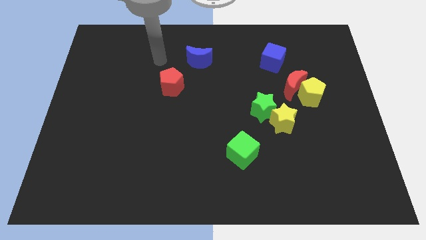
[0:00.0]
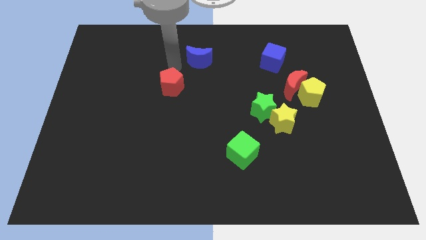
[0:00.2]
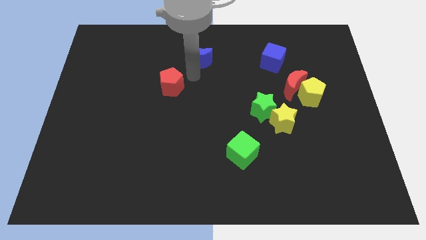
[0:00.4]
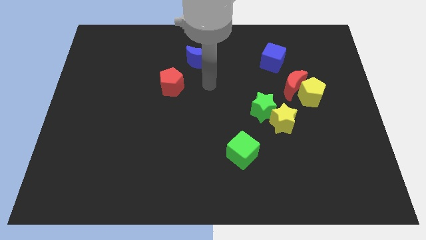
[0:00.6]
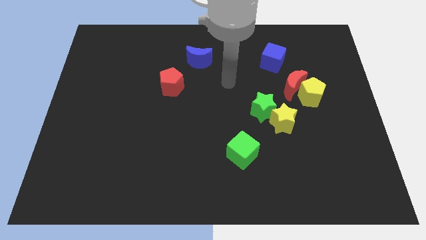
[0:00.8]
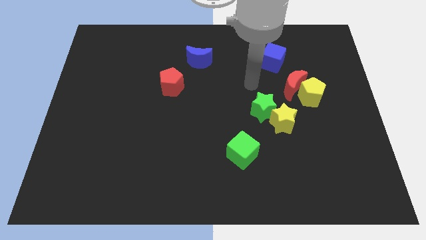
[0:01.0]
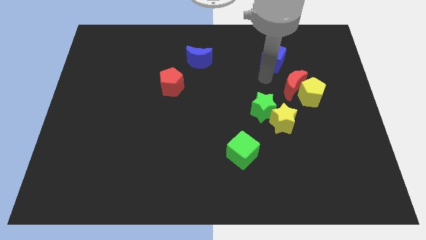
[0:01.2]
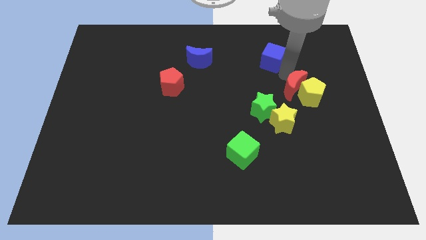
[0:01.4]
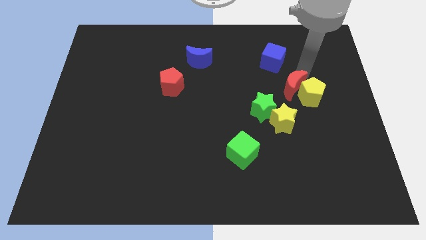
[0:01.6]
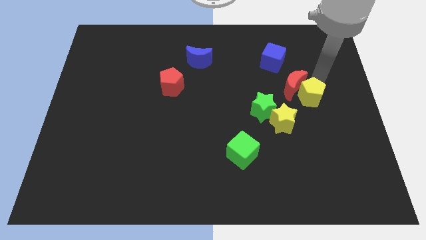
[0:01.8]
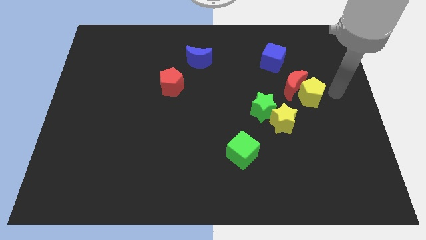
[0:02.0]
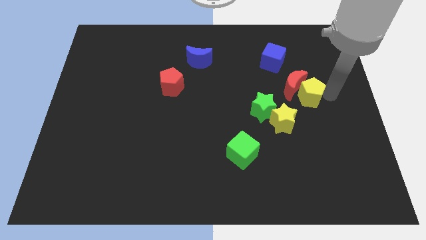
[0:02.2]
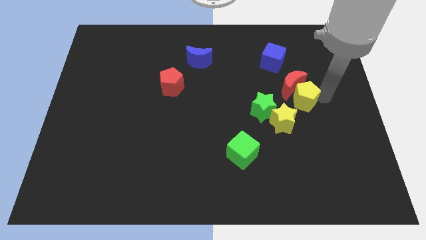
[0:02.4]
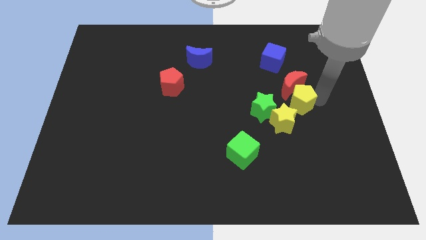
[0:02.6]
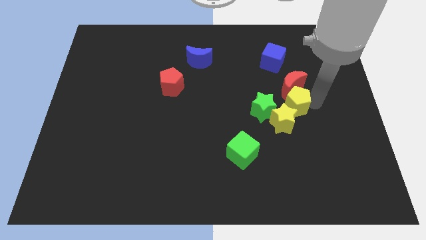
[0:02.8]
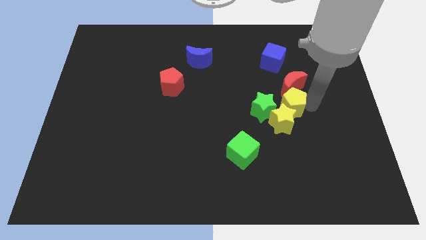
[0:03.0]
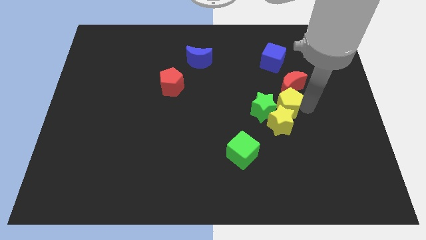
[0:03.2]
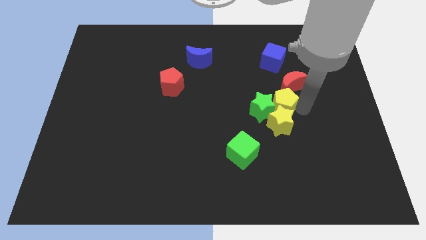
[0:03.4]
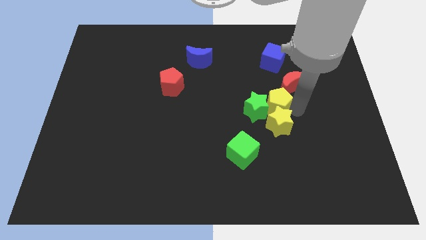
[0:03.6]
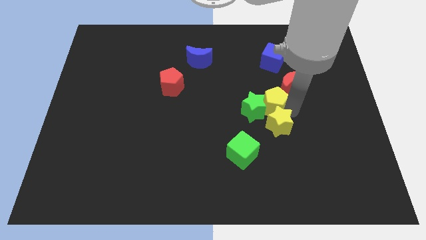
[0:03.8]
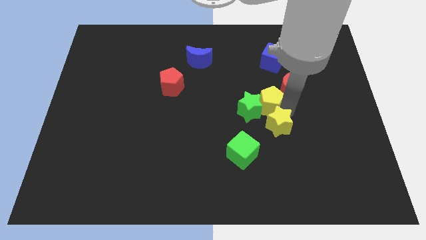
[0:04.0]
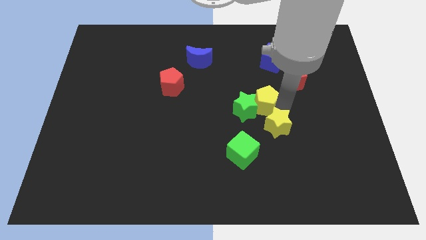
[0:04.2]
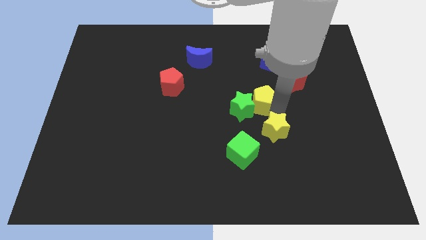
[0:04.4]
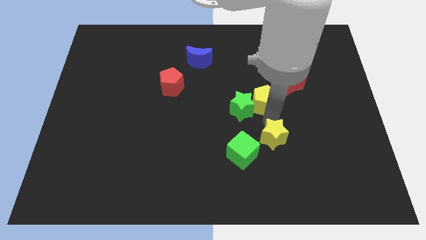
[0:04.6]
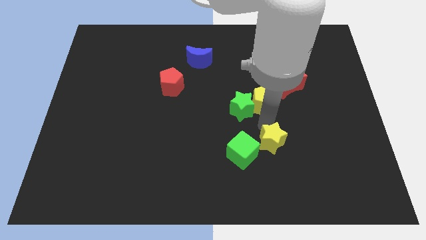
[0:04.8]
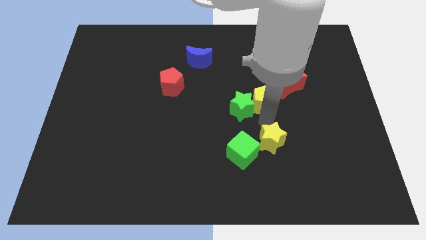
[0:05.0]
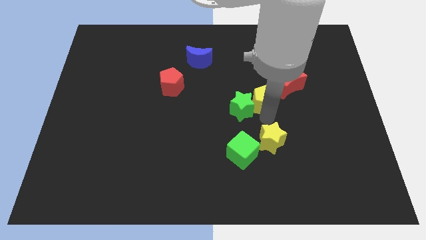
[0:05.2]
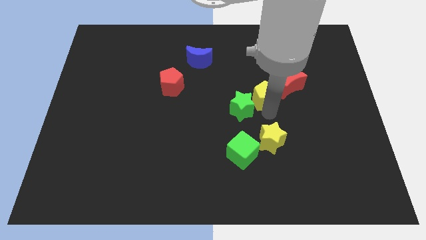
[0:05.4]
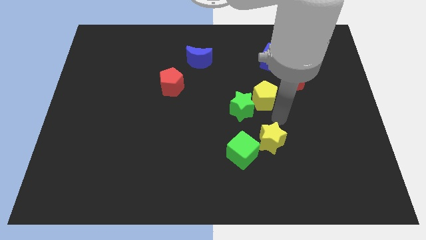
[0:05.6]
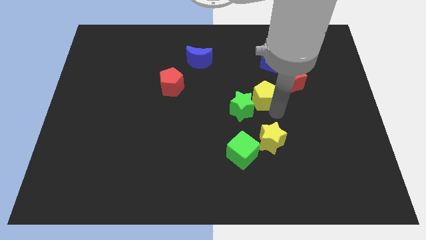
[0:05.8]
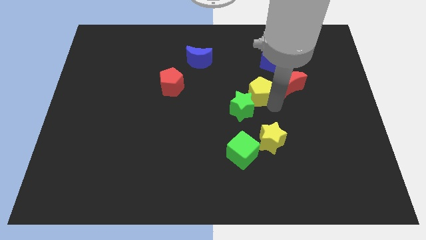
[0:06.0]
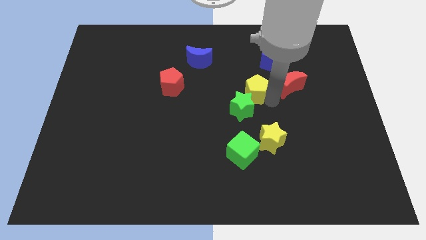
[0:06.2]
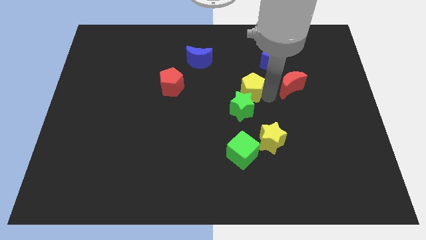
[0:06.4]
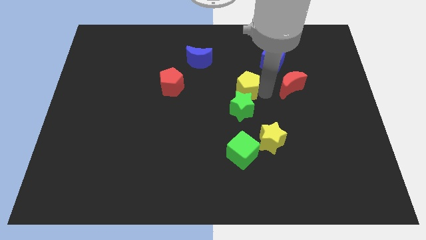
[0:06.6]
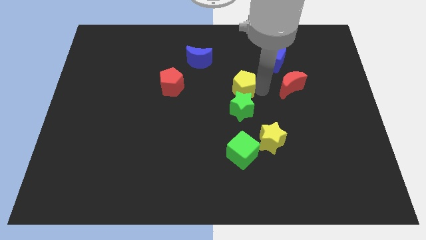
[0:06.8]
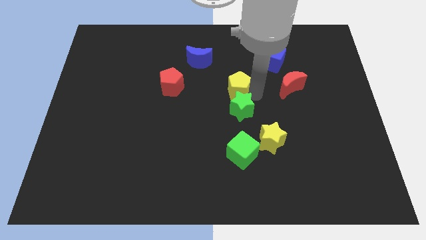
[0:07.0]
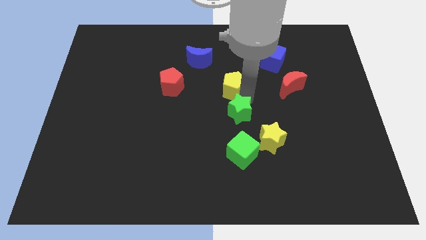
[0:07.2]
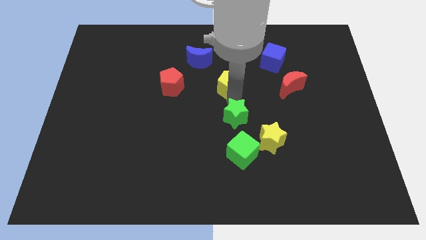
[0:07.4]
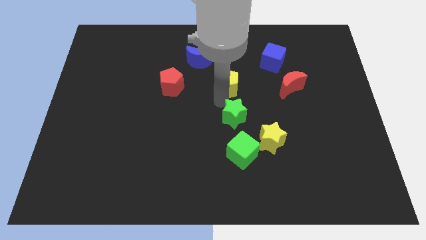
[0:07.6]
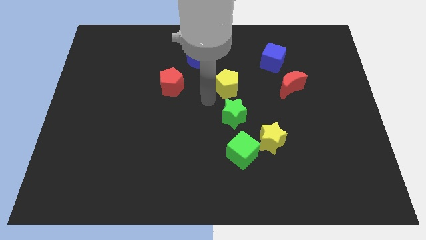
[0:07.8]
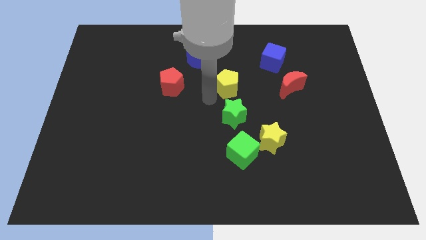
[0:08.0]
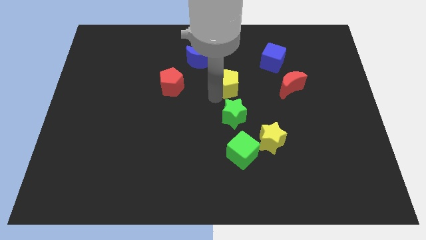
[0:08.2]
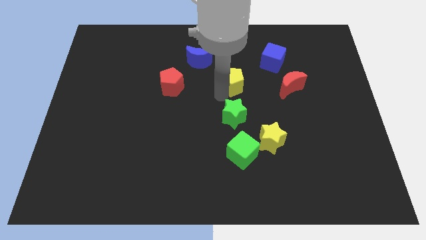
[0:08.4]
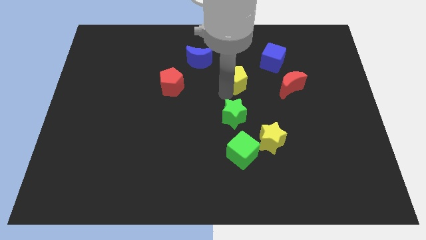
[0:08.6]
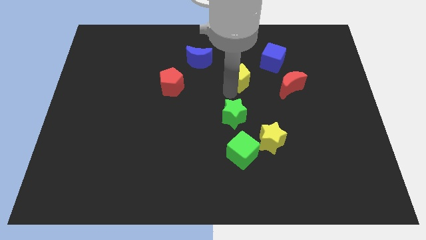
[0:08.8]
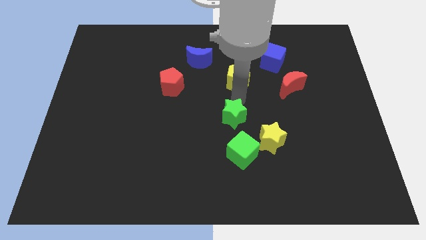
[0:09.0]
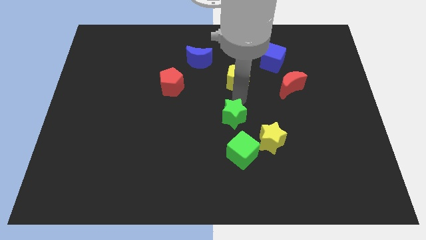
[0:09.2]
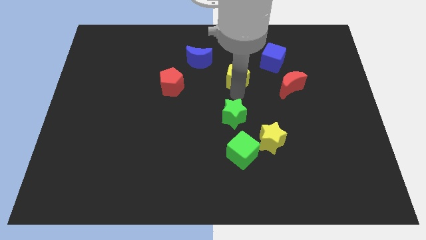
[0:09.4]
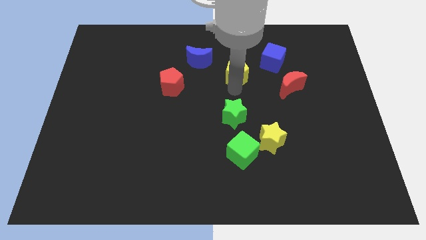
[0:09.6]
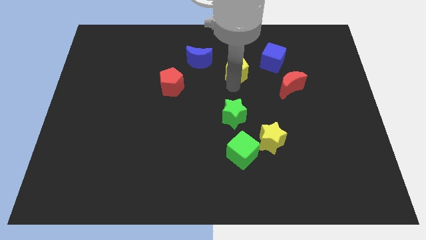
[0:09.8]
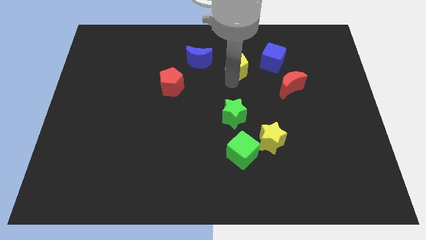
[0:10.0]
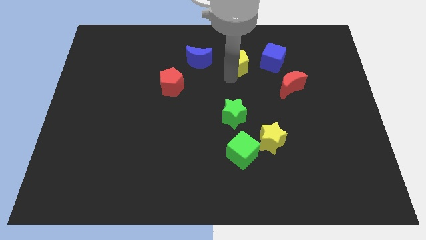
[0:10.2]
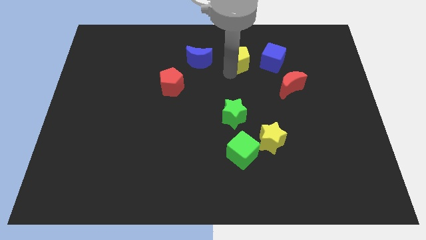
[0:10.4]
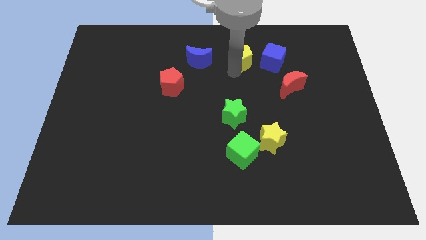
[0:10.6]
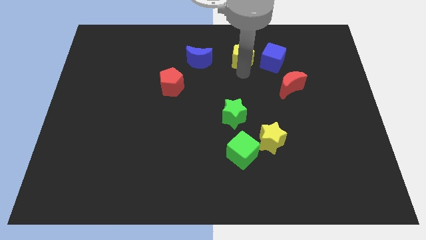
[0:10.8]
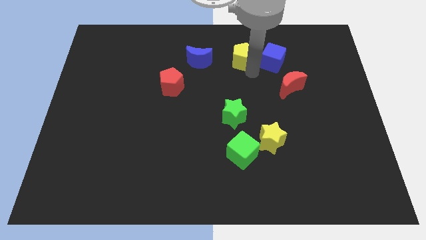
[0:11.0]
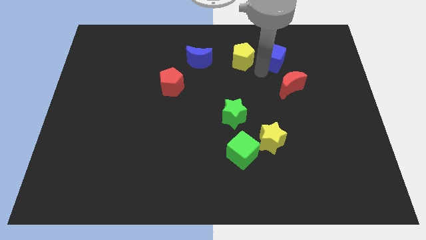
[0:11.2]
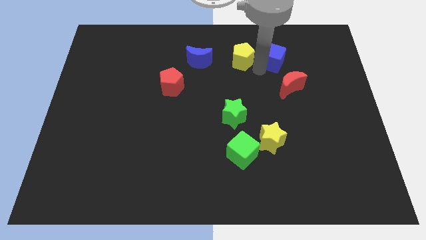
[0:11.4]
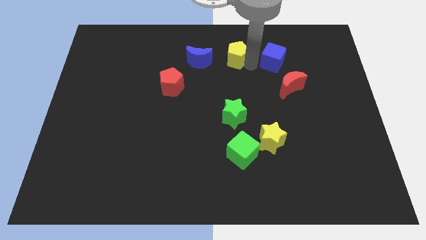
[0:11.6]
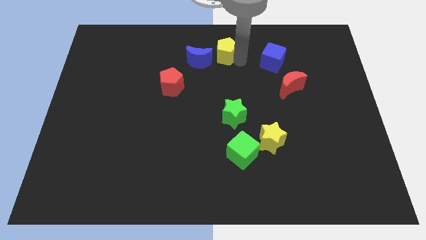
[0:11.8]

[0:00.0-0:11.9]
move the yellow pentagon to the top side

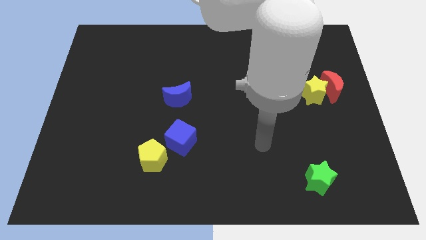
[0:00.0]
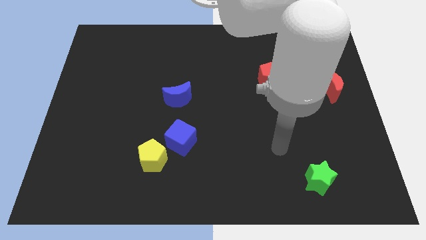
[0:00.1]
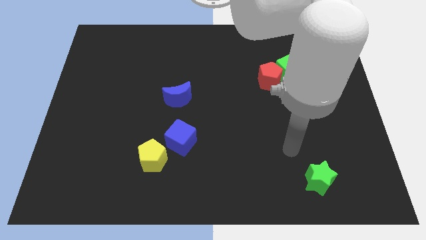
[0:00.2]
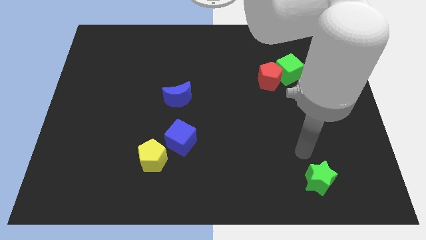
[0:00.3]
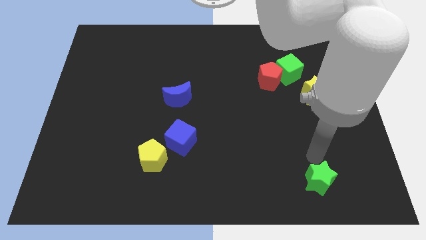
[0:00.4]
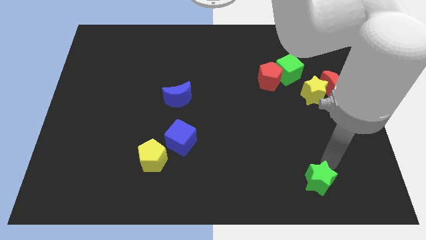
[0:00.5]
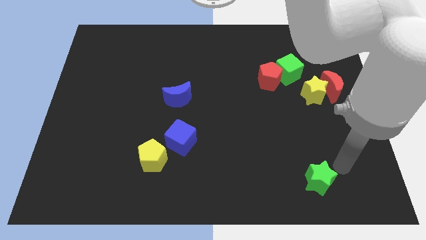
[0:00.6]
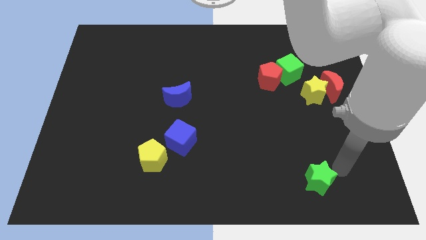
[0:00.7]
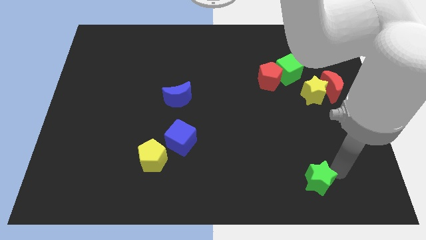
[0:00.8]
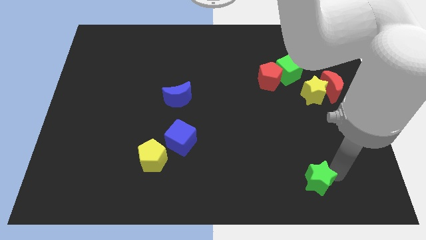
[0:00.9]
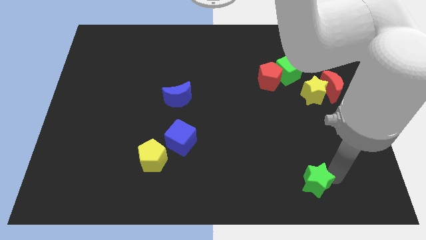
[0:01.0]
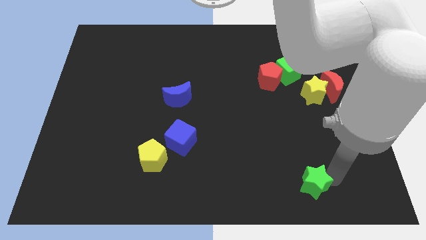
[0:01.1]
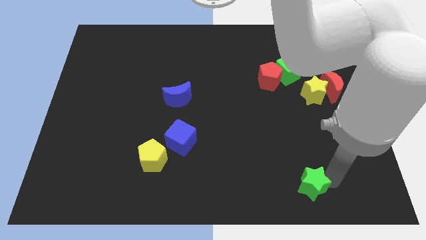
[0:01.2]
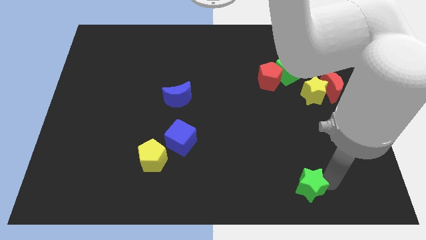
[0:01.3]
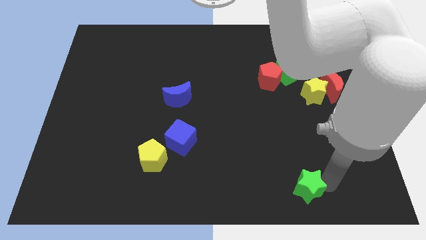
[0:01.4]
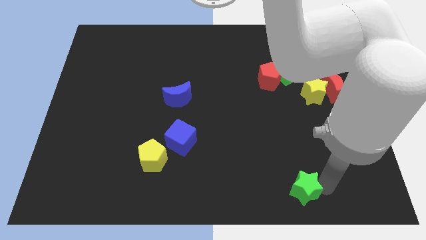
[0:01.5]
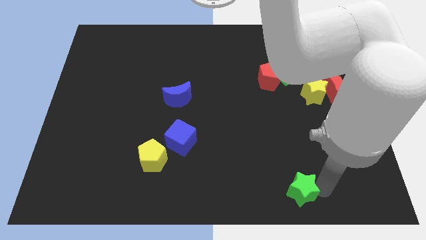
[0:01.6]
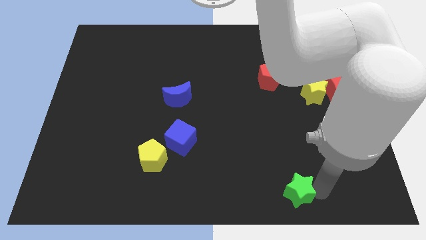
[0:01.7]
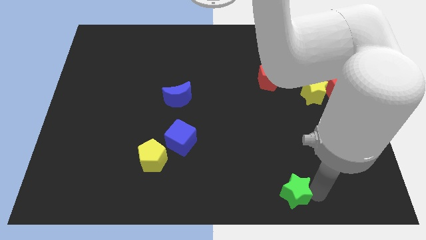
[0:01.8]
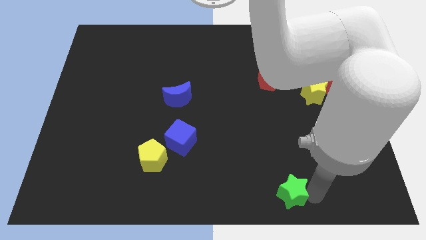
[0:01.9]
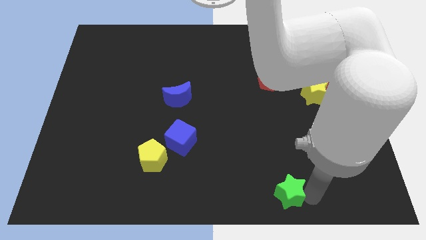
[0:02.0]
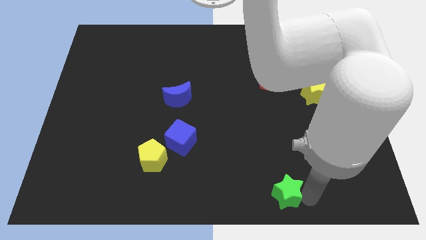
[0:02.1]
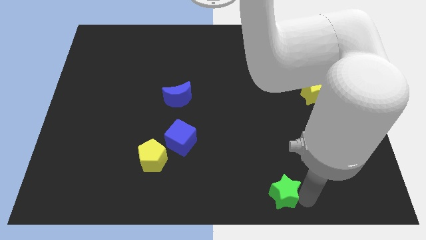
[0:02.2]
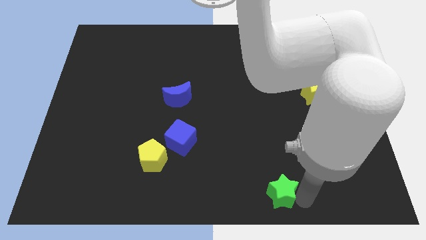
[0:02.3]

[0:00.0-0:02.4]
move the green star to the bottom side
